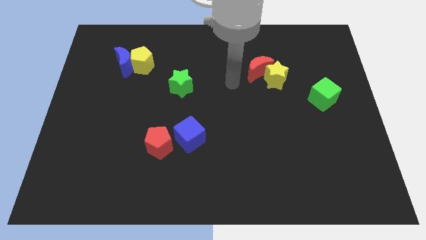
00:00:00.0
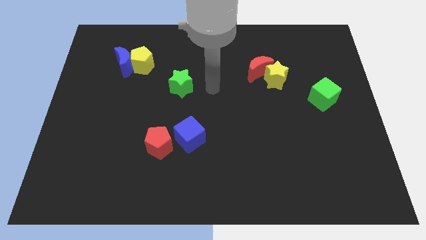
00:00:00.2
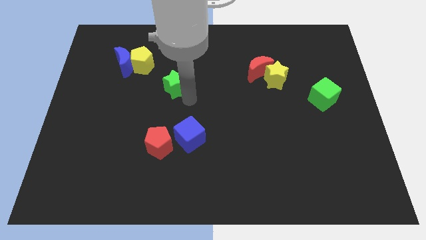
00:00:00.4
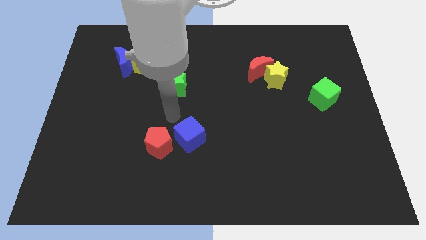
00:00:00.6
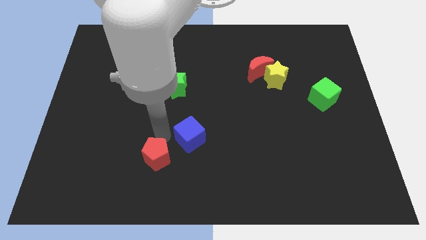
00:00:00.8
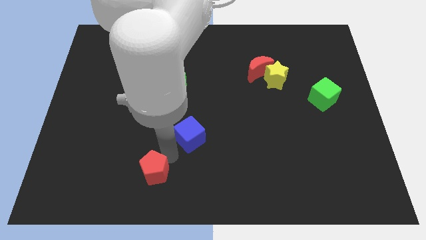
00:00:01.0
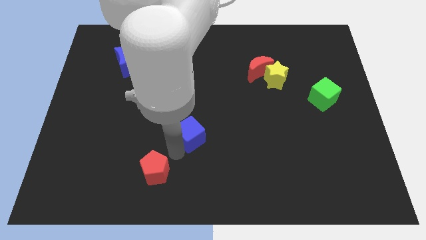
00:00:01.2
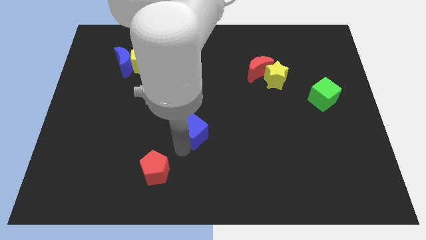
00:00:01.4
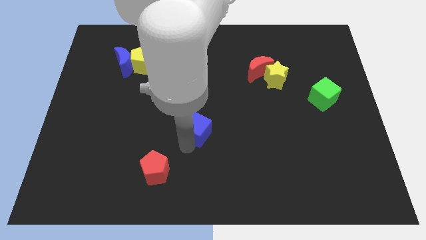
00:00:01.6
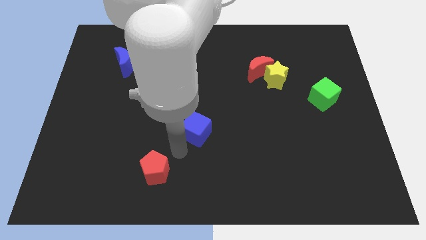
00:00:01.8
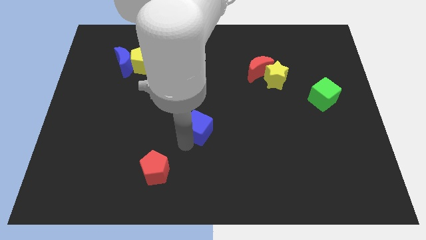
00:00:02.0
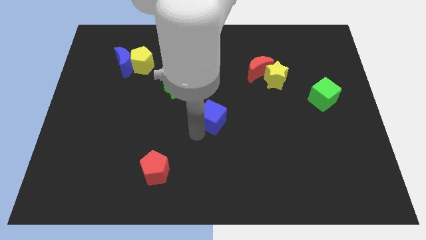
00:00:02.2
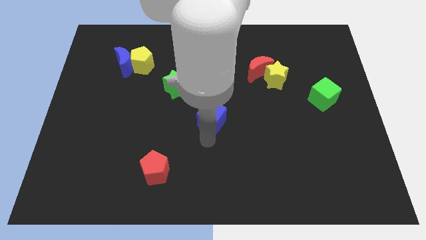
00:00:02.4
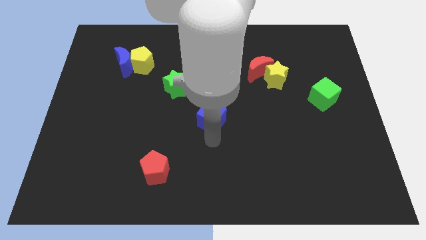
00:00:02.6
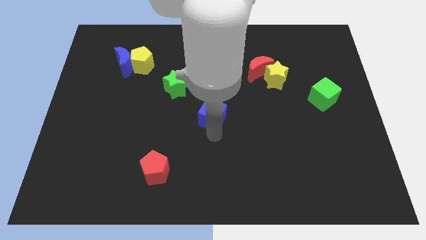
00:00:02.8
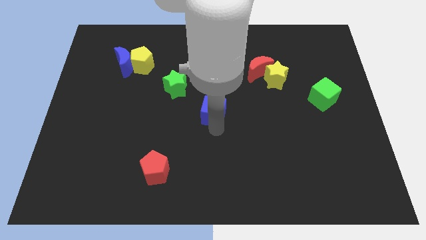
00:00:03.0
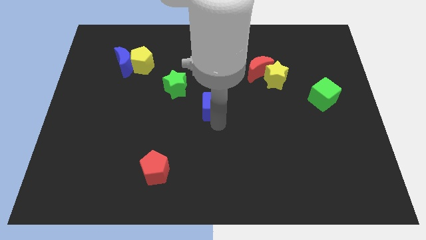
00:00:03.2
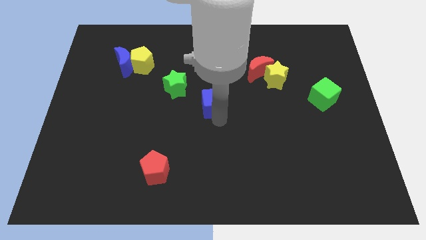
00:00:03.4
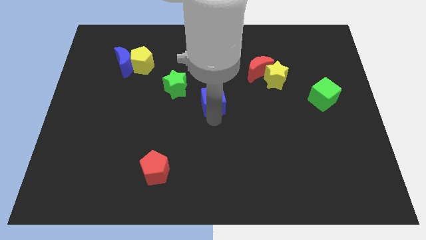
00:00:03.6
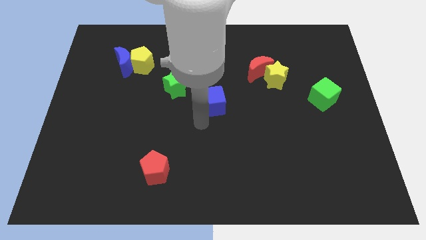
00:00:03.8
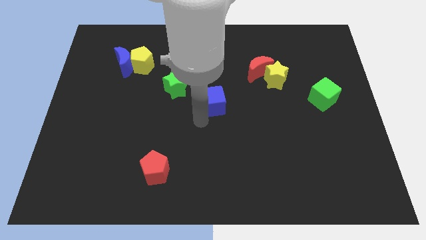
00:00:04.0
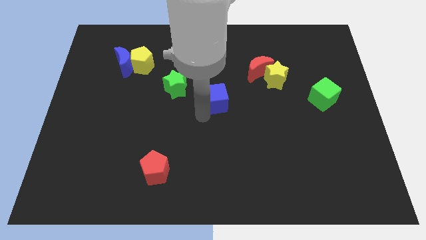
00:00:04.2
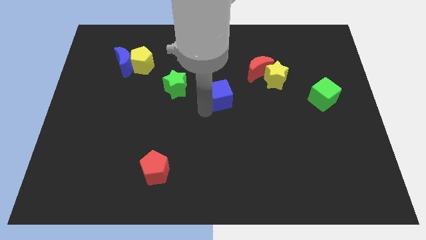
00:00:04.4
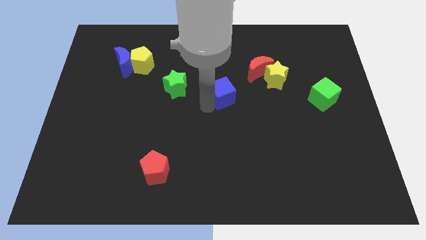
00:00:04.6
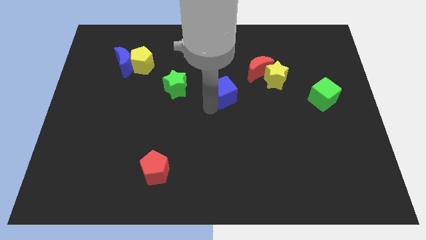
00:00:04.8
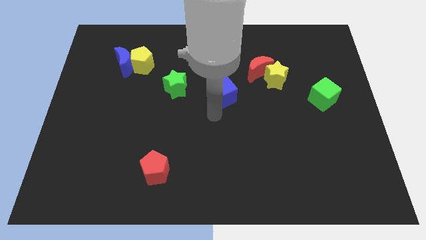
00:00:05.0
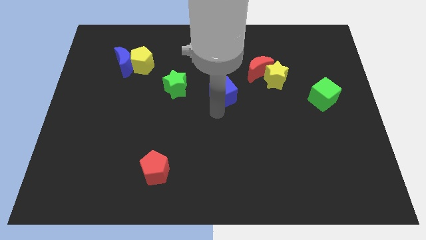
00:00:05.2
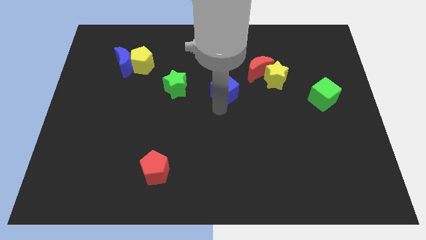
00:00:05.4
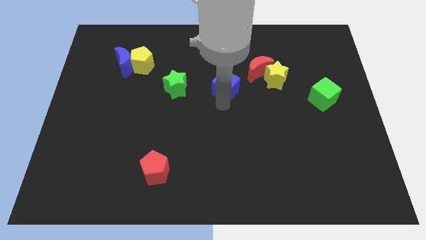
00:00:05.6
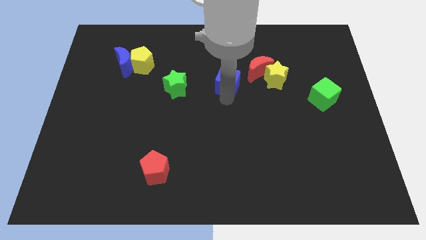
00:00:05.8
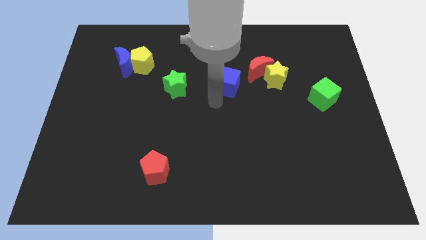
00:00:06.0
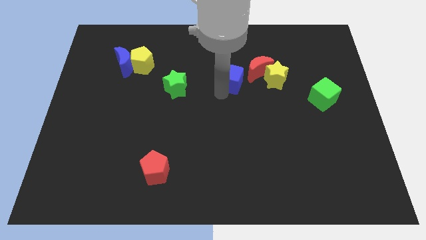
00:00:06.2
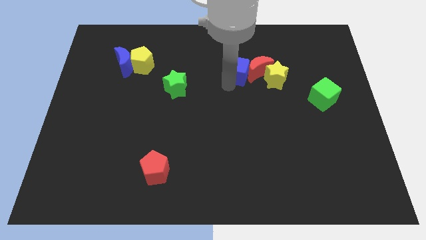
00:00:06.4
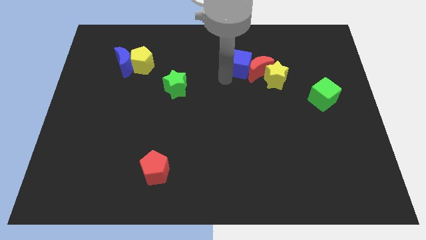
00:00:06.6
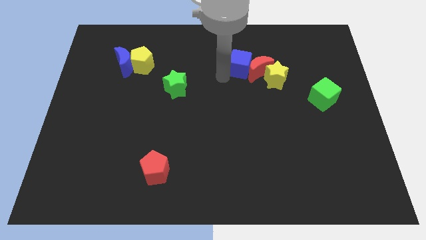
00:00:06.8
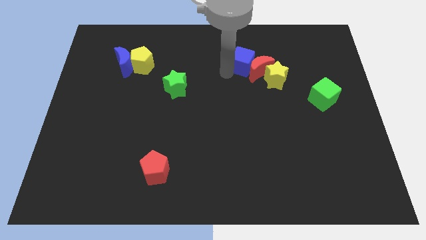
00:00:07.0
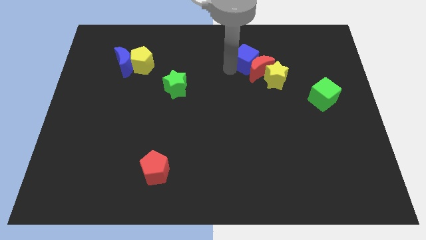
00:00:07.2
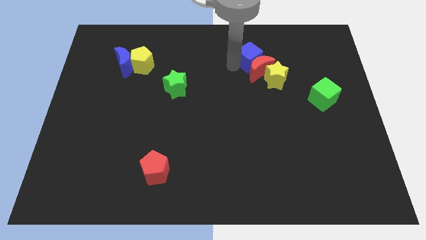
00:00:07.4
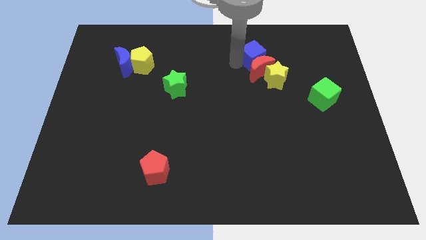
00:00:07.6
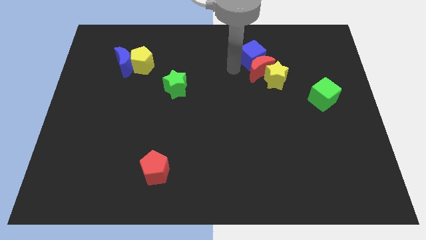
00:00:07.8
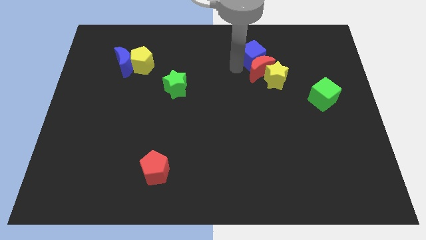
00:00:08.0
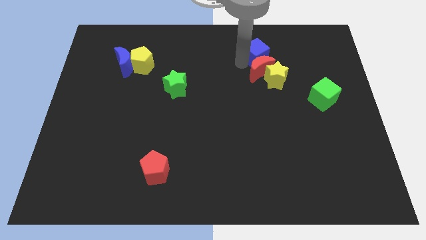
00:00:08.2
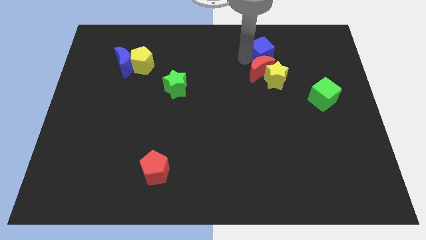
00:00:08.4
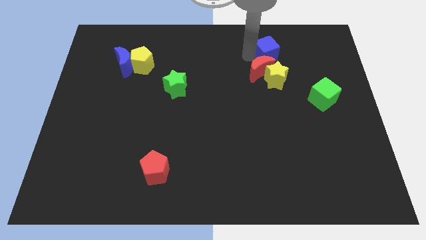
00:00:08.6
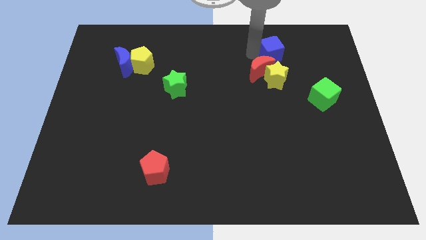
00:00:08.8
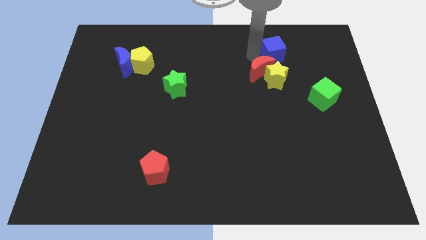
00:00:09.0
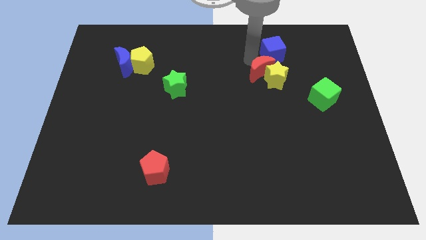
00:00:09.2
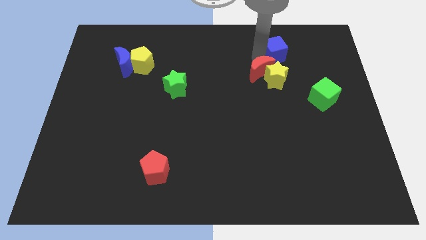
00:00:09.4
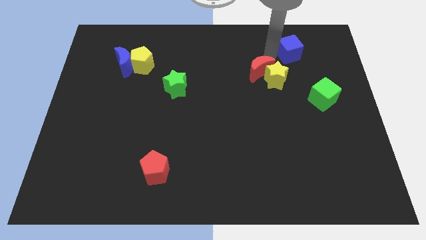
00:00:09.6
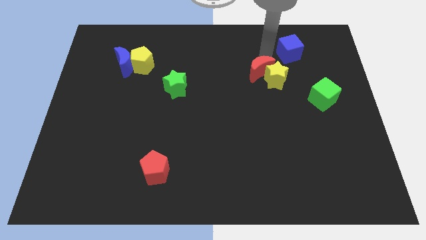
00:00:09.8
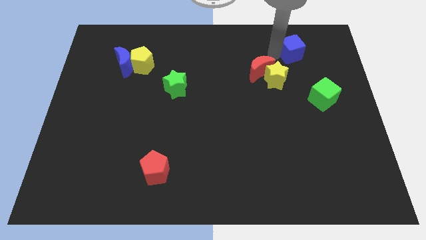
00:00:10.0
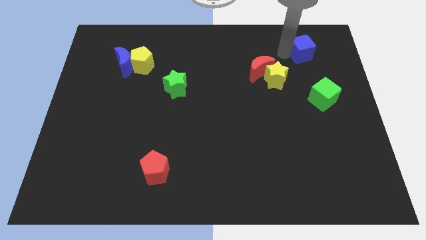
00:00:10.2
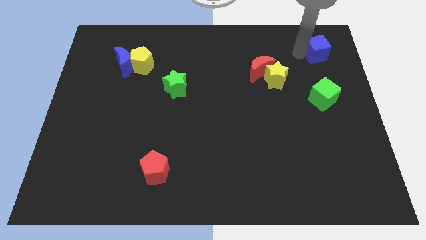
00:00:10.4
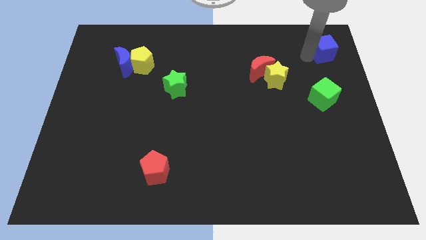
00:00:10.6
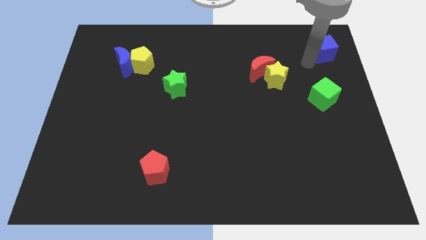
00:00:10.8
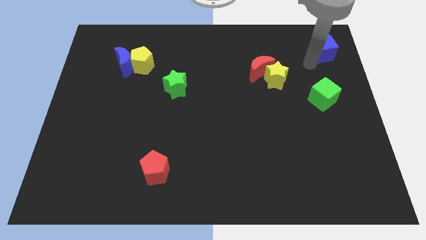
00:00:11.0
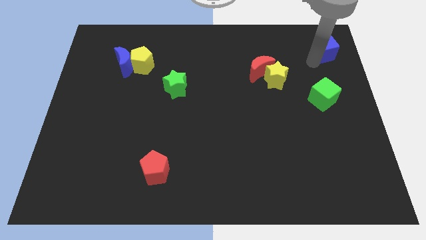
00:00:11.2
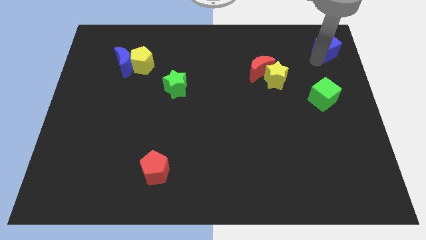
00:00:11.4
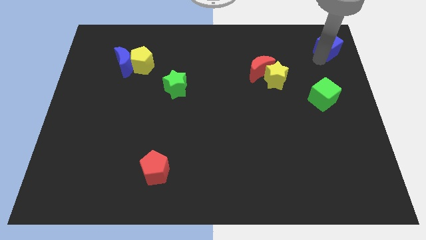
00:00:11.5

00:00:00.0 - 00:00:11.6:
push the blue cube to the top right

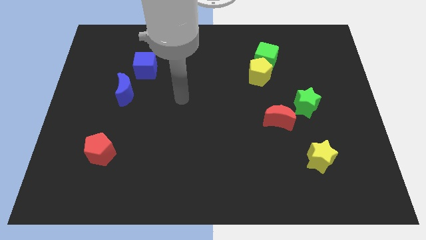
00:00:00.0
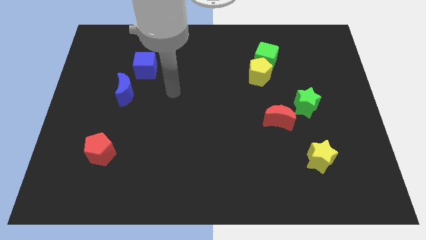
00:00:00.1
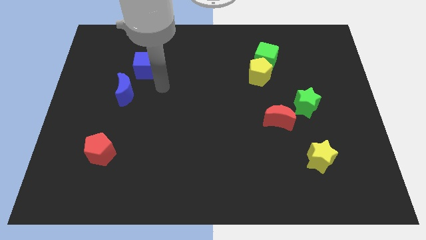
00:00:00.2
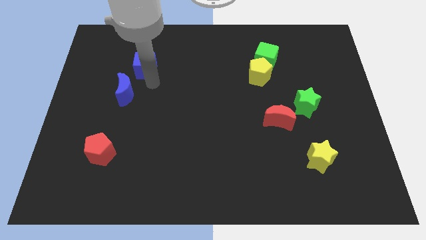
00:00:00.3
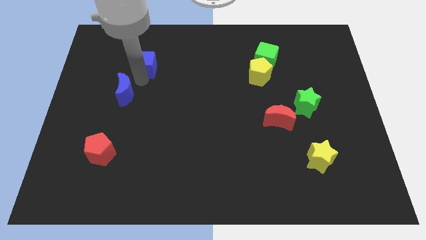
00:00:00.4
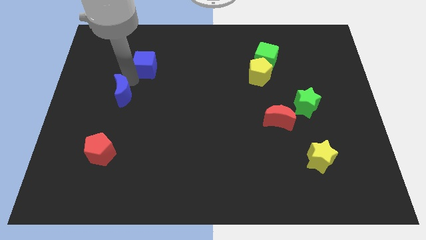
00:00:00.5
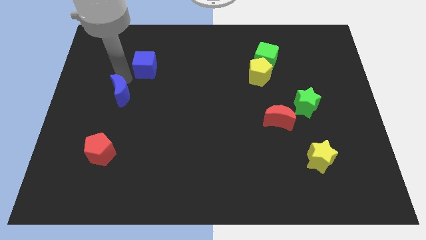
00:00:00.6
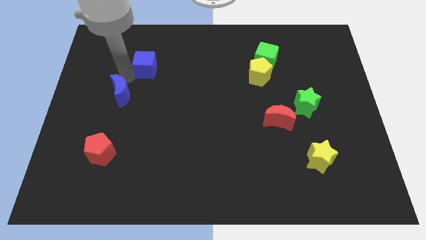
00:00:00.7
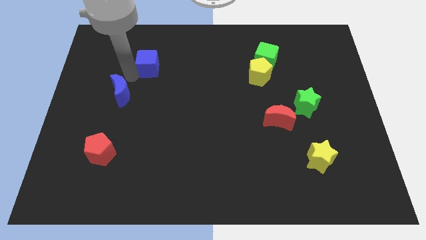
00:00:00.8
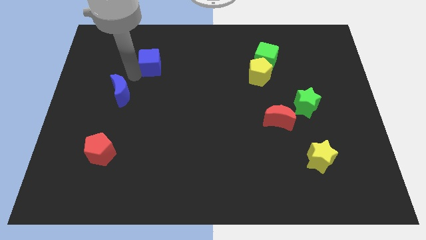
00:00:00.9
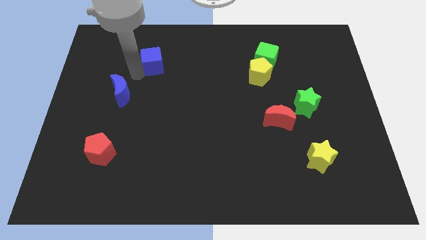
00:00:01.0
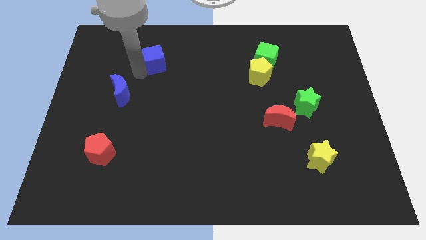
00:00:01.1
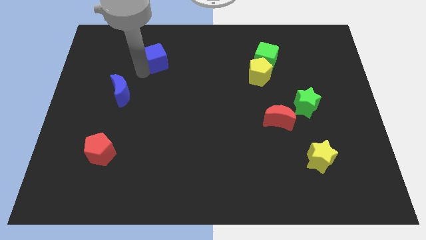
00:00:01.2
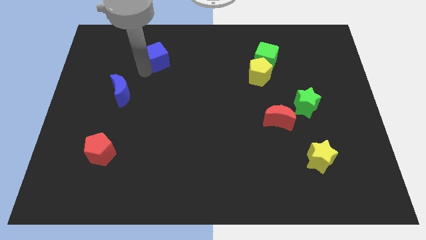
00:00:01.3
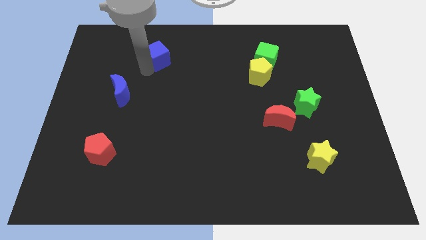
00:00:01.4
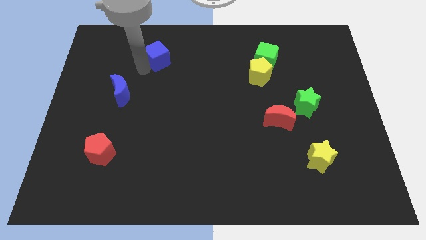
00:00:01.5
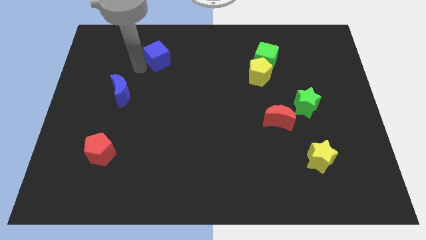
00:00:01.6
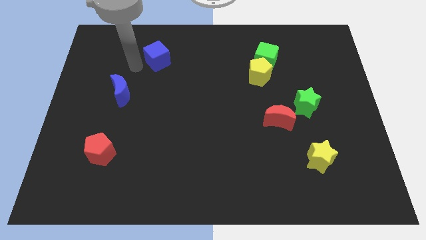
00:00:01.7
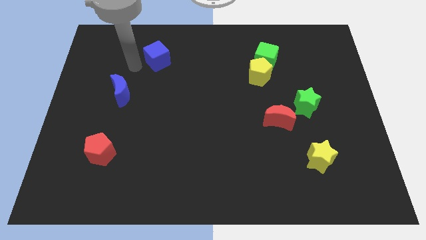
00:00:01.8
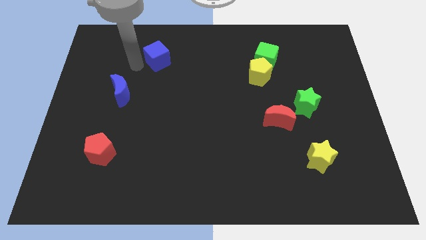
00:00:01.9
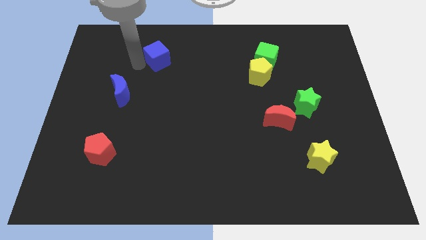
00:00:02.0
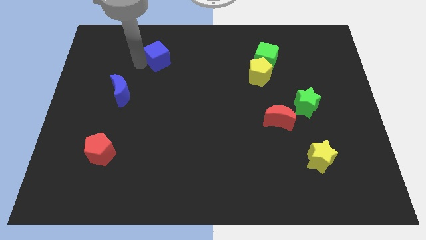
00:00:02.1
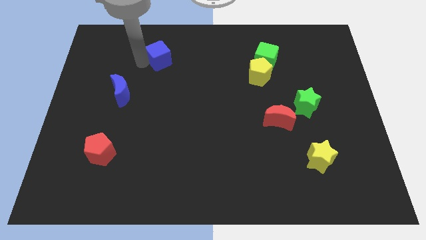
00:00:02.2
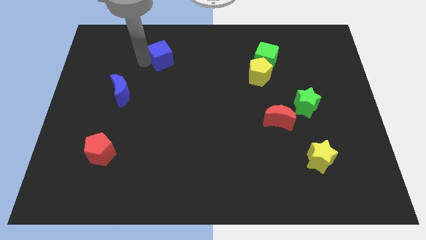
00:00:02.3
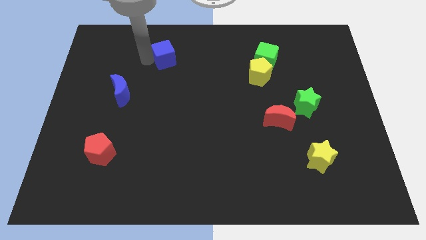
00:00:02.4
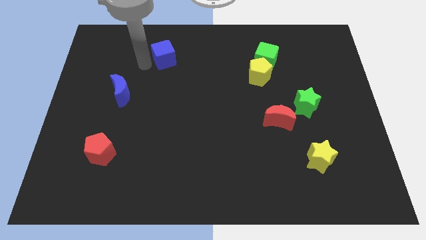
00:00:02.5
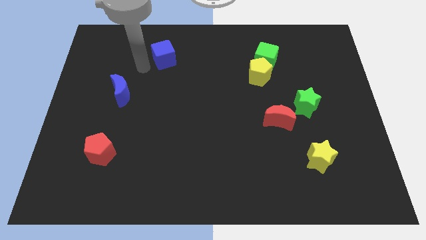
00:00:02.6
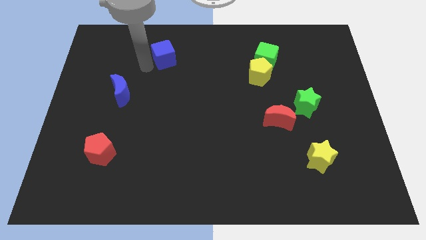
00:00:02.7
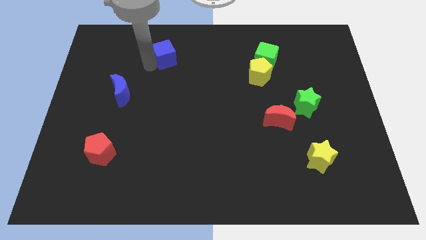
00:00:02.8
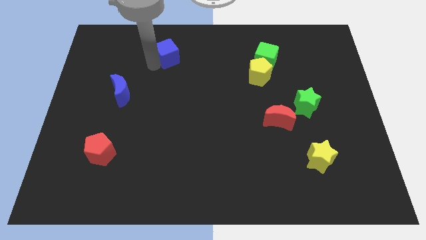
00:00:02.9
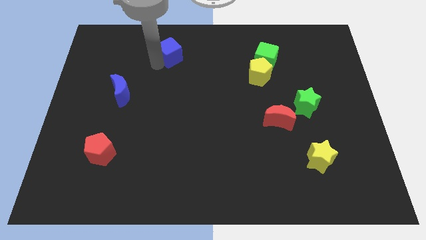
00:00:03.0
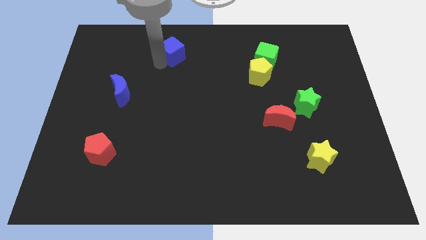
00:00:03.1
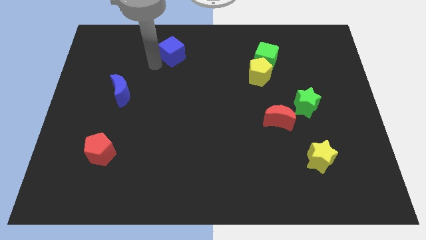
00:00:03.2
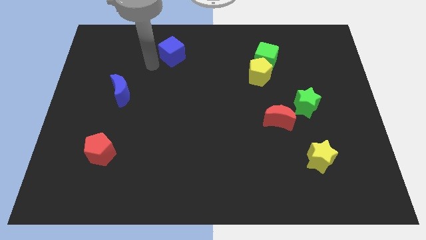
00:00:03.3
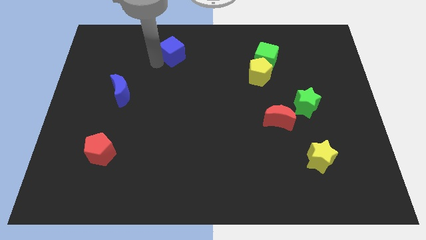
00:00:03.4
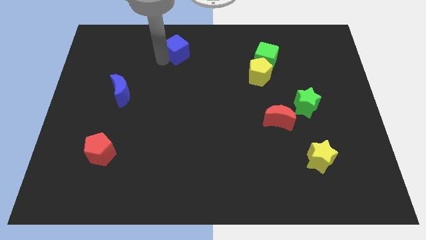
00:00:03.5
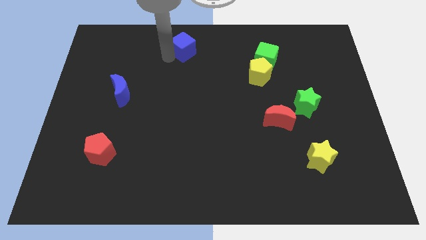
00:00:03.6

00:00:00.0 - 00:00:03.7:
push the blue cube to the towards your base
